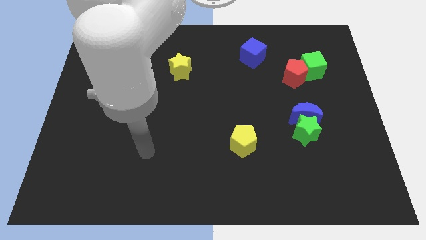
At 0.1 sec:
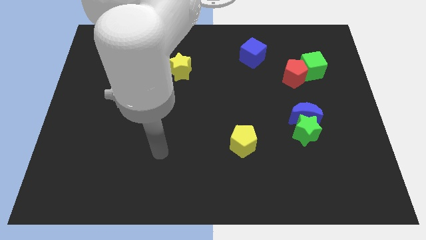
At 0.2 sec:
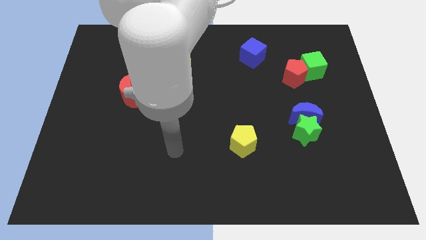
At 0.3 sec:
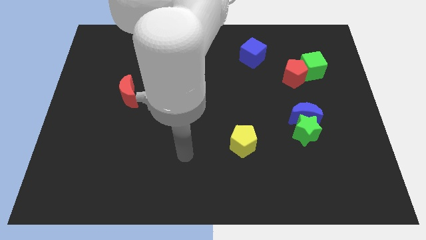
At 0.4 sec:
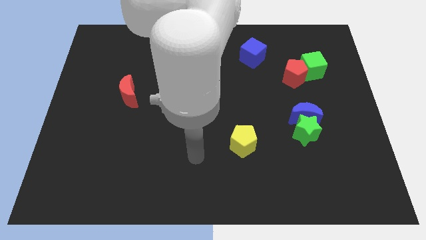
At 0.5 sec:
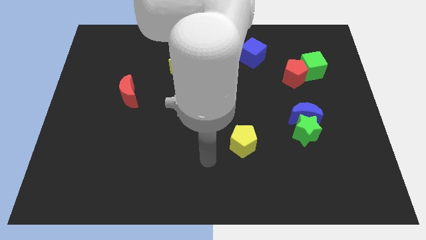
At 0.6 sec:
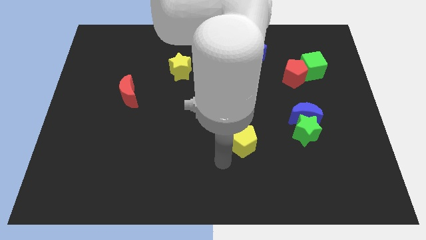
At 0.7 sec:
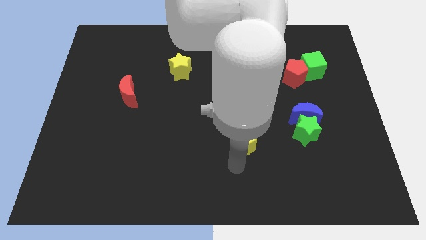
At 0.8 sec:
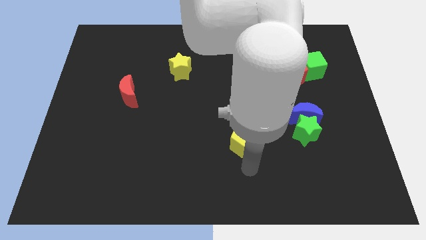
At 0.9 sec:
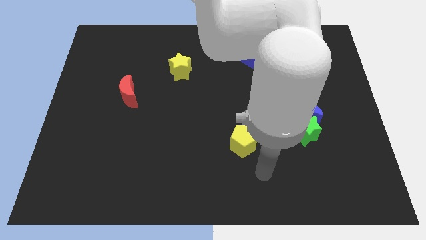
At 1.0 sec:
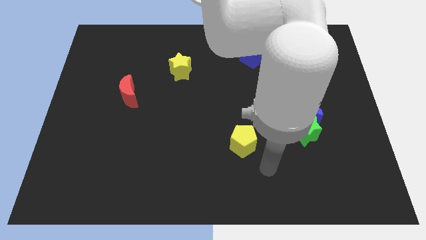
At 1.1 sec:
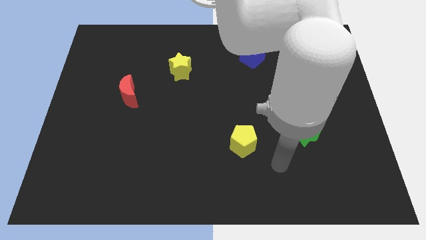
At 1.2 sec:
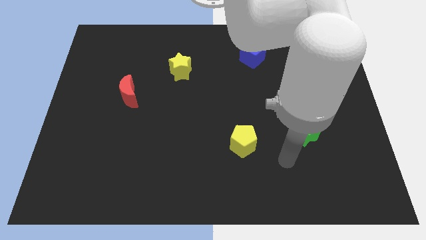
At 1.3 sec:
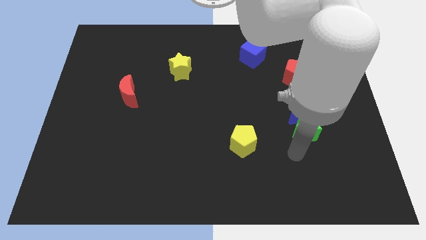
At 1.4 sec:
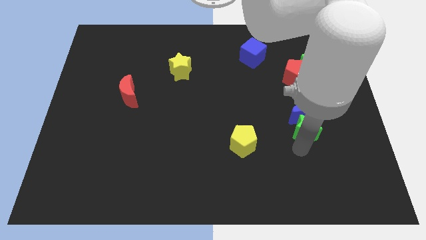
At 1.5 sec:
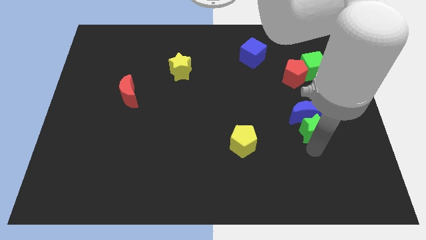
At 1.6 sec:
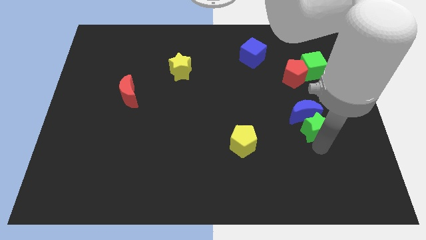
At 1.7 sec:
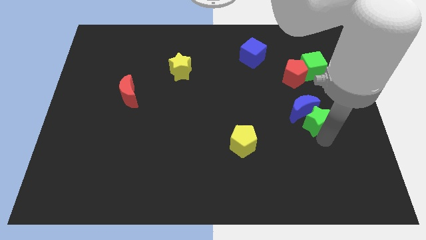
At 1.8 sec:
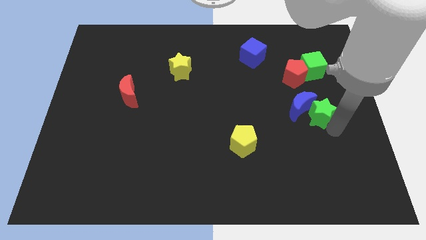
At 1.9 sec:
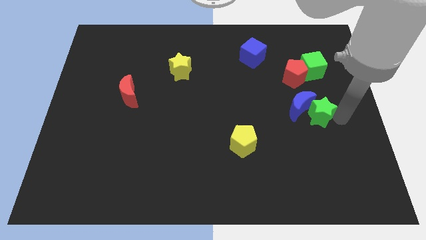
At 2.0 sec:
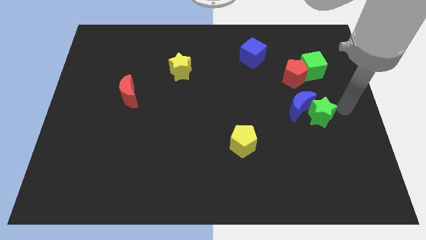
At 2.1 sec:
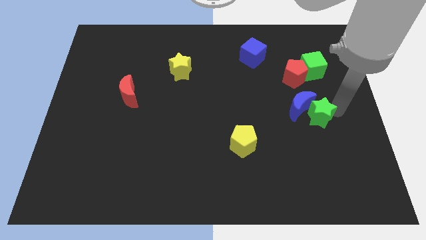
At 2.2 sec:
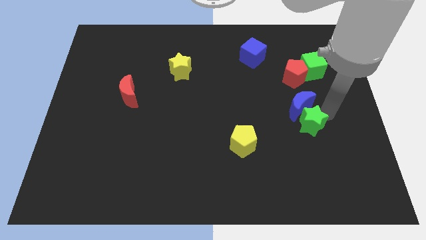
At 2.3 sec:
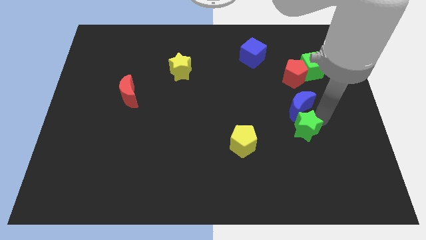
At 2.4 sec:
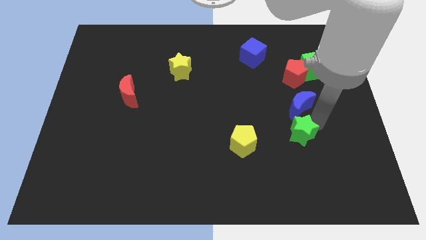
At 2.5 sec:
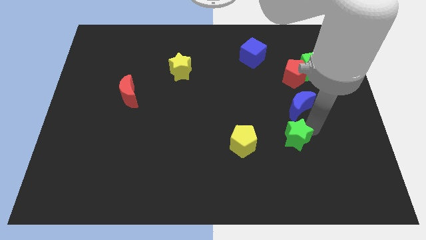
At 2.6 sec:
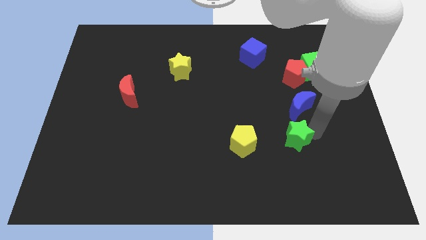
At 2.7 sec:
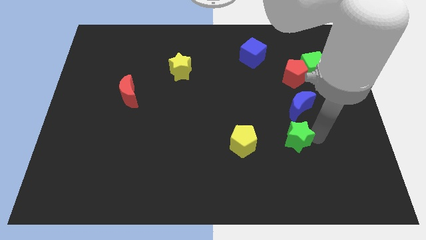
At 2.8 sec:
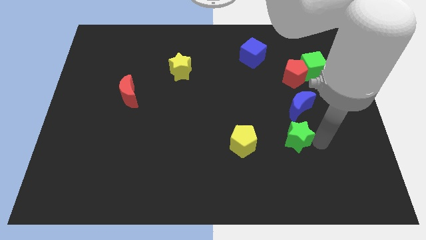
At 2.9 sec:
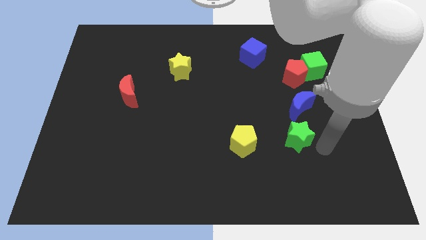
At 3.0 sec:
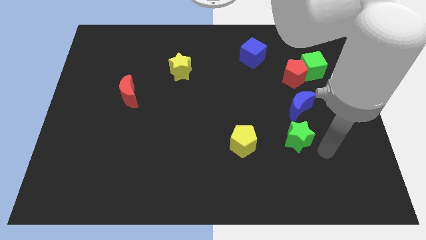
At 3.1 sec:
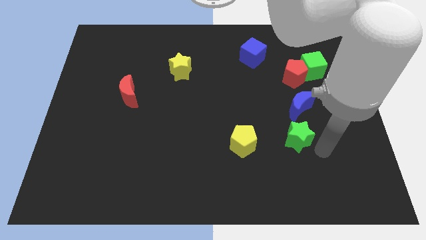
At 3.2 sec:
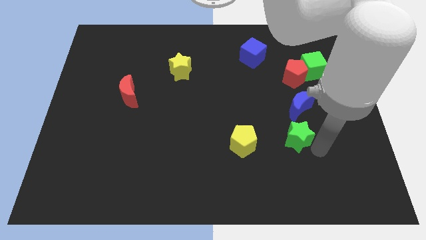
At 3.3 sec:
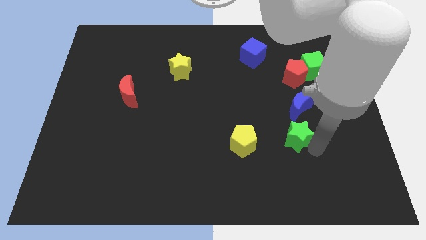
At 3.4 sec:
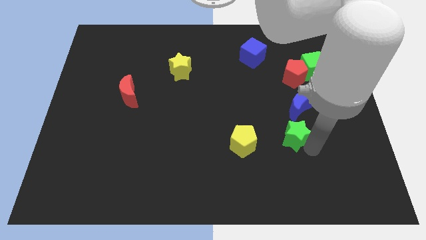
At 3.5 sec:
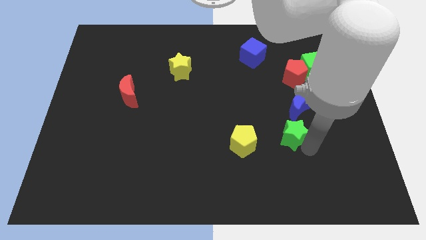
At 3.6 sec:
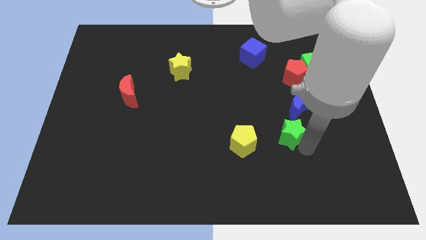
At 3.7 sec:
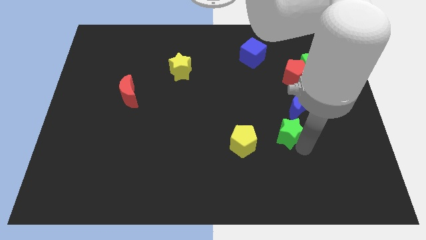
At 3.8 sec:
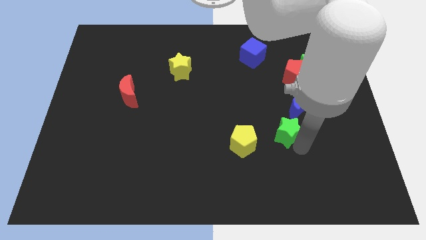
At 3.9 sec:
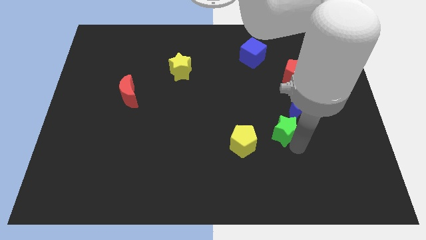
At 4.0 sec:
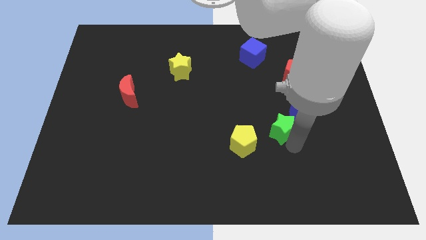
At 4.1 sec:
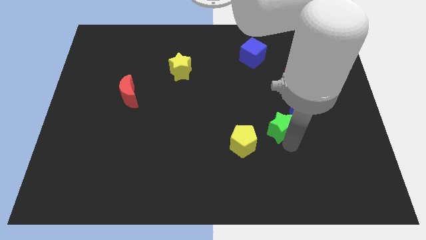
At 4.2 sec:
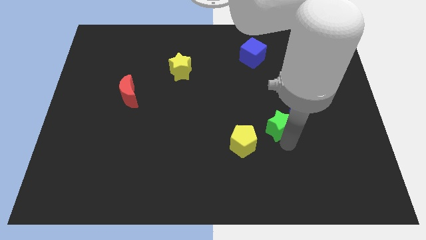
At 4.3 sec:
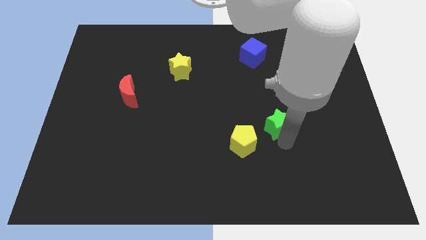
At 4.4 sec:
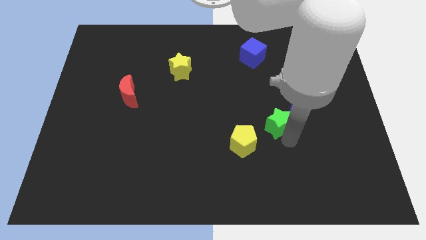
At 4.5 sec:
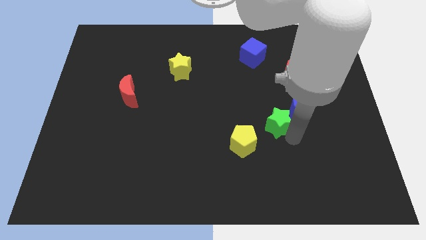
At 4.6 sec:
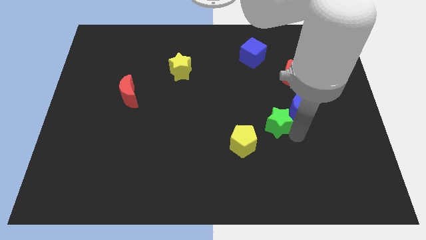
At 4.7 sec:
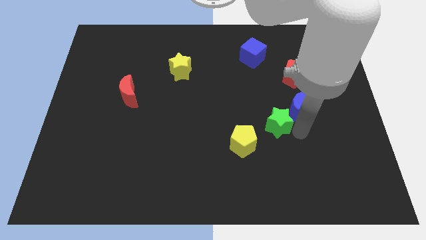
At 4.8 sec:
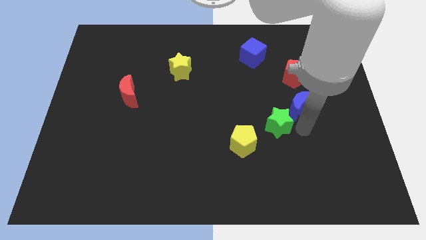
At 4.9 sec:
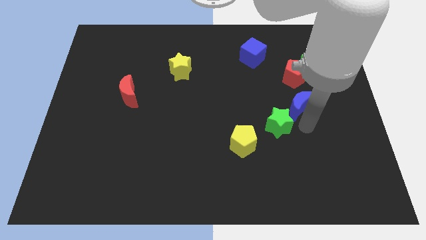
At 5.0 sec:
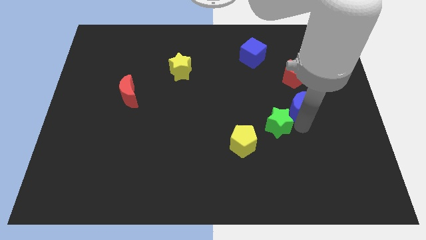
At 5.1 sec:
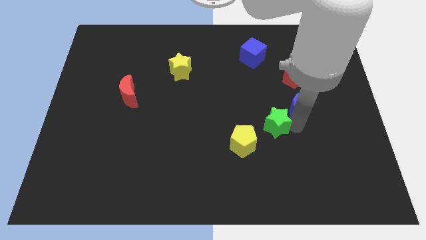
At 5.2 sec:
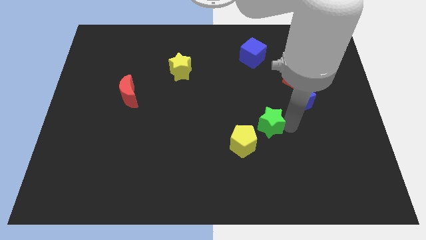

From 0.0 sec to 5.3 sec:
push the green star left slightly

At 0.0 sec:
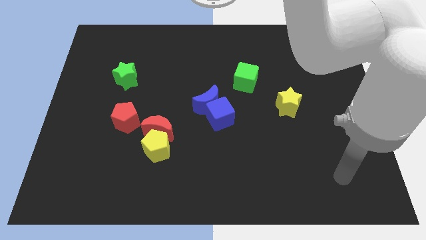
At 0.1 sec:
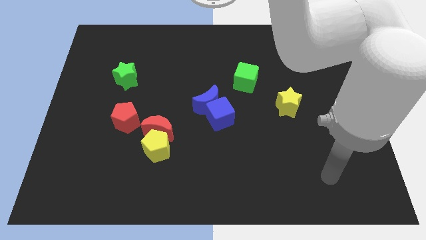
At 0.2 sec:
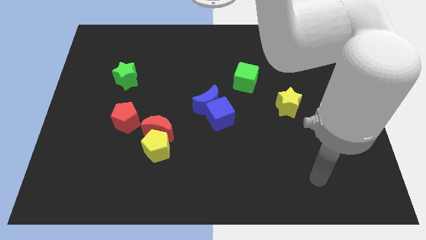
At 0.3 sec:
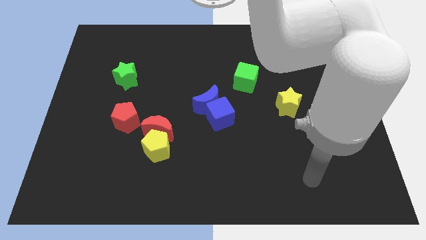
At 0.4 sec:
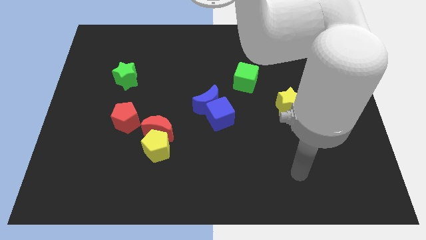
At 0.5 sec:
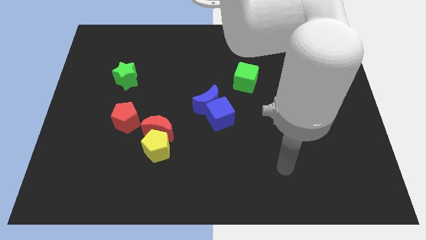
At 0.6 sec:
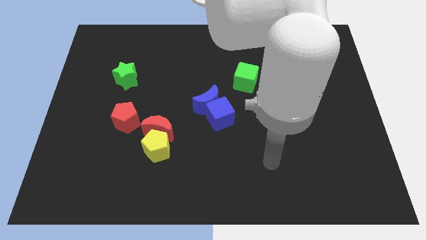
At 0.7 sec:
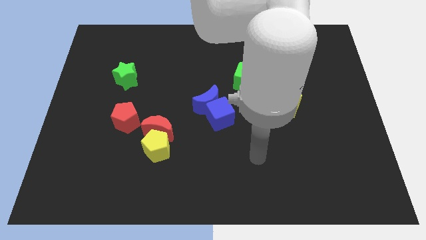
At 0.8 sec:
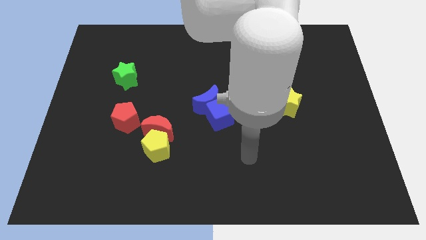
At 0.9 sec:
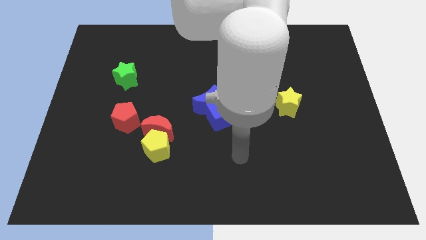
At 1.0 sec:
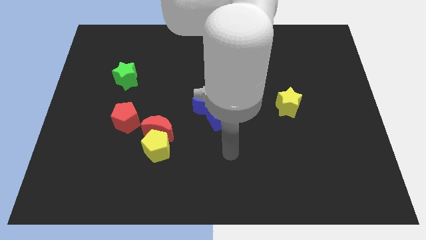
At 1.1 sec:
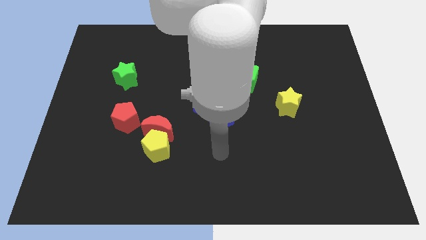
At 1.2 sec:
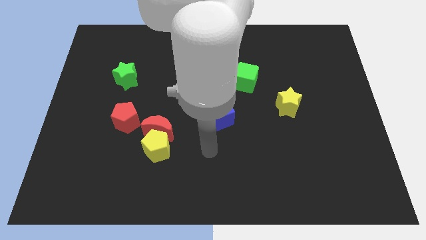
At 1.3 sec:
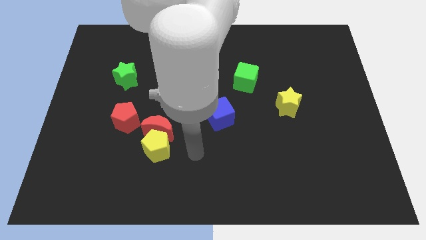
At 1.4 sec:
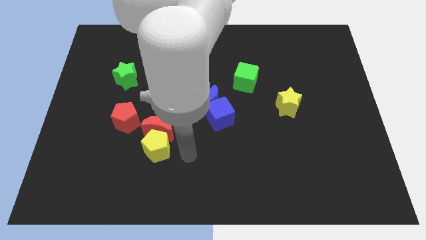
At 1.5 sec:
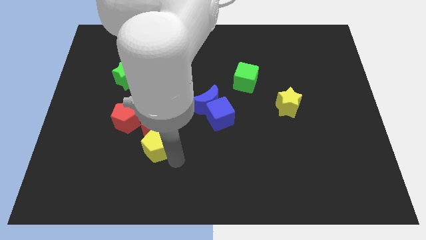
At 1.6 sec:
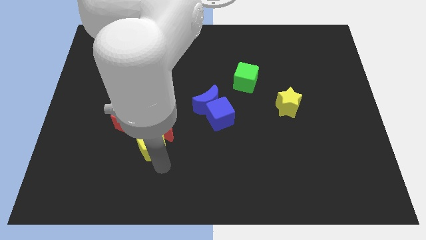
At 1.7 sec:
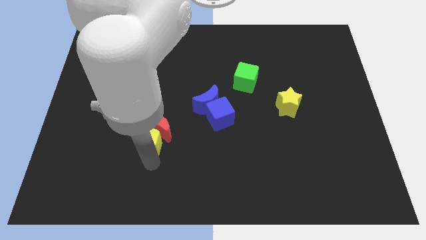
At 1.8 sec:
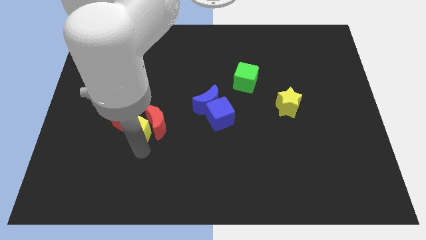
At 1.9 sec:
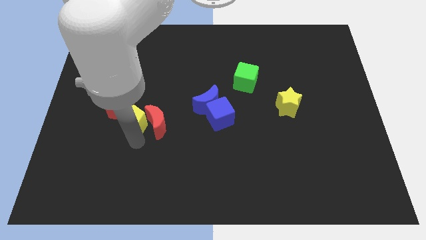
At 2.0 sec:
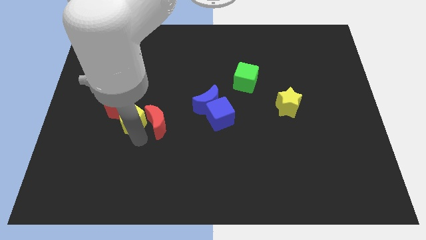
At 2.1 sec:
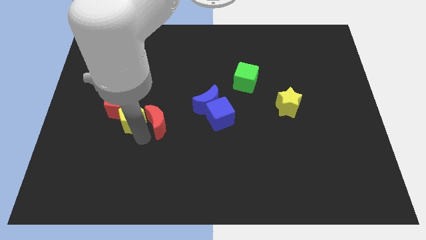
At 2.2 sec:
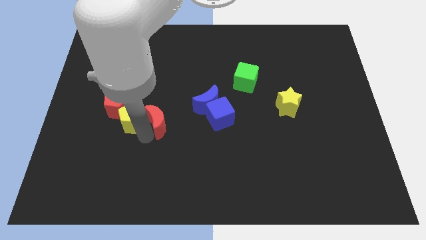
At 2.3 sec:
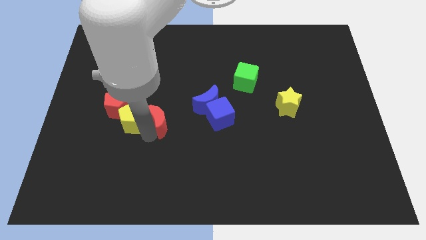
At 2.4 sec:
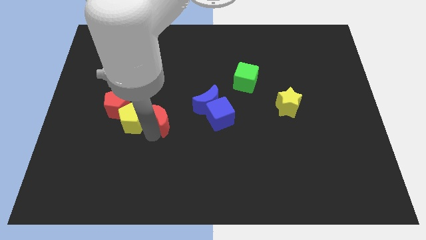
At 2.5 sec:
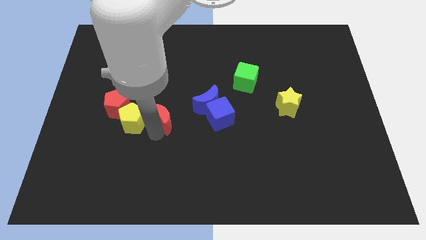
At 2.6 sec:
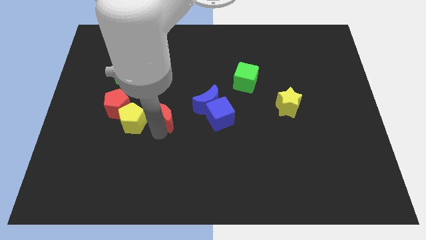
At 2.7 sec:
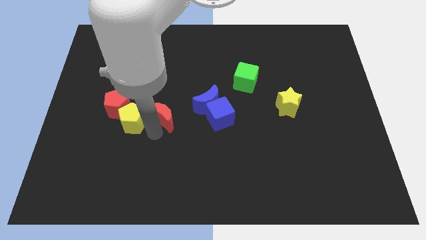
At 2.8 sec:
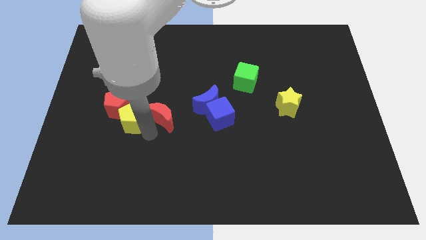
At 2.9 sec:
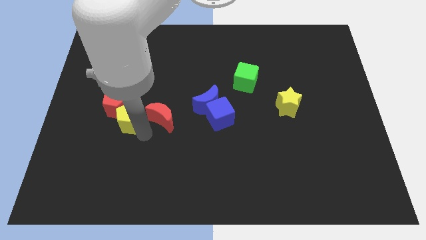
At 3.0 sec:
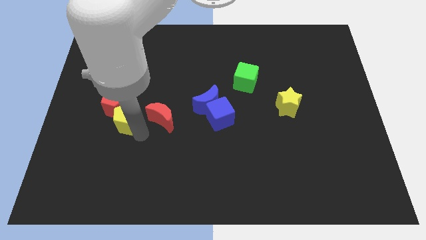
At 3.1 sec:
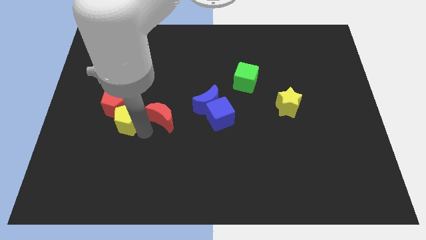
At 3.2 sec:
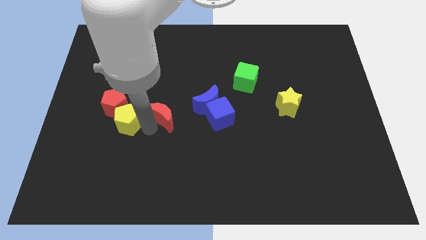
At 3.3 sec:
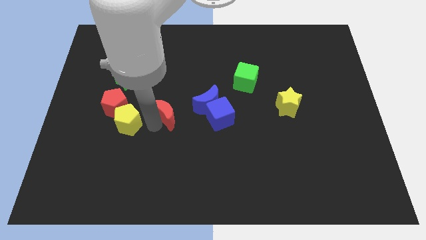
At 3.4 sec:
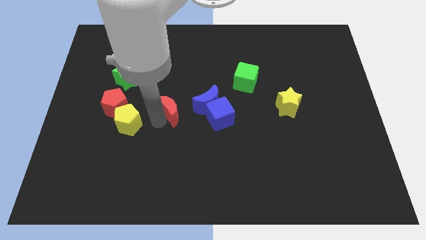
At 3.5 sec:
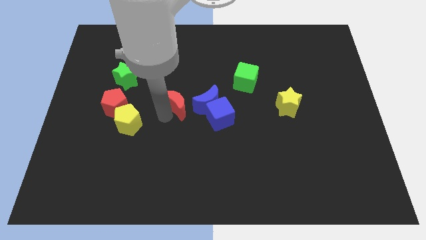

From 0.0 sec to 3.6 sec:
push the red moon up and then right a bit
